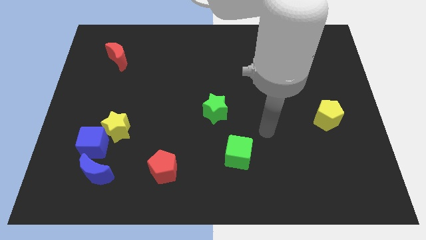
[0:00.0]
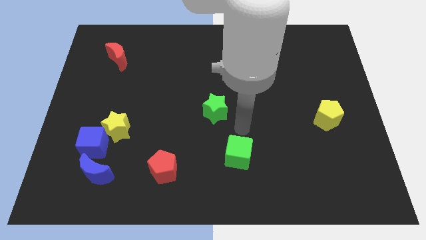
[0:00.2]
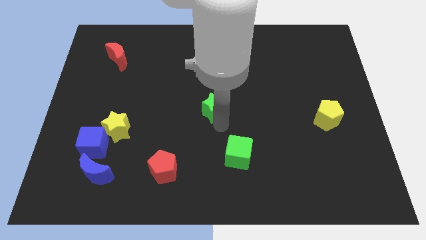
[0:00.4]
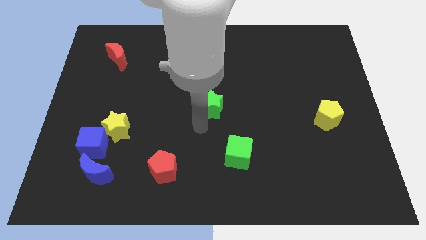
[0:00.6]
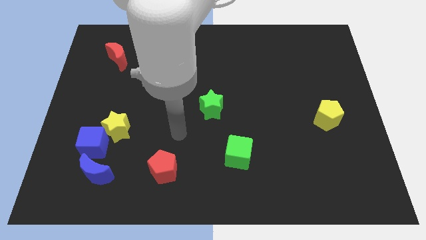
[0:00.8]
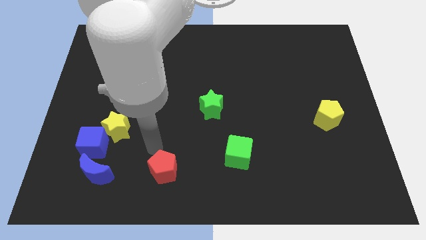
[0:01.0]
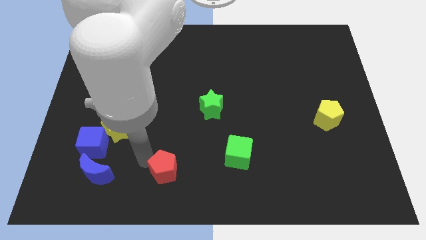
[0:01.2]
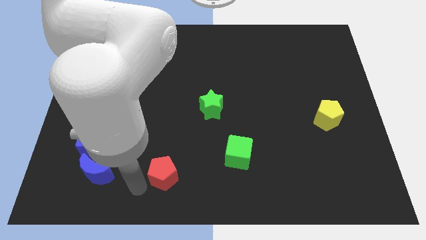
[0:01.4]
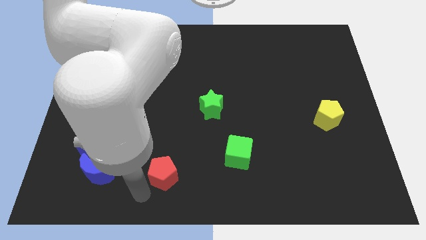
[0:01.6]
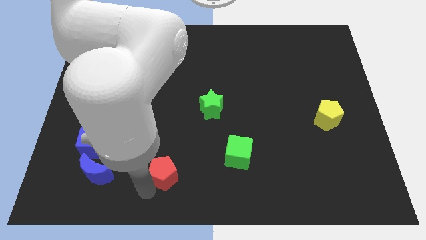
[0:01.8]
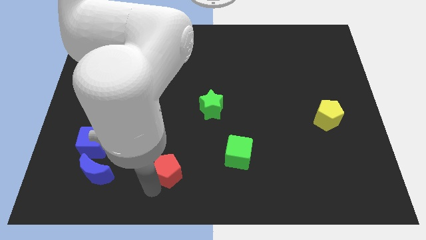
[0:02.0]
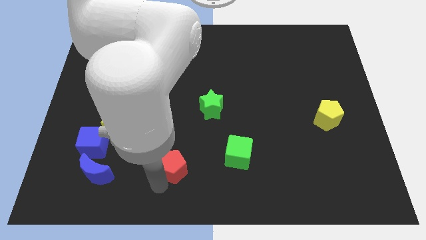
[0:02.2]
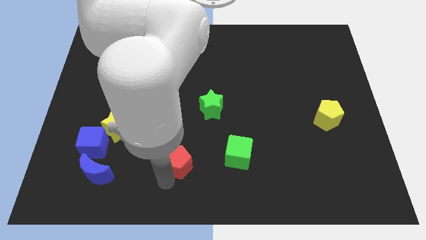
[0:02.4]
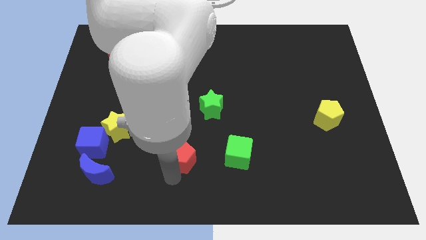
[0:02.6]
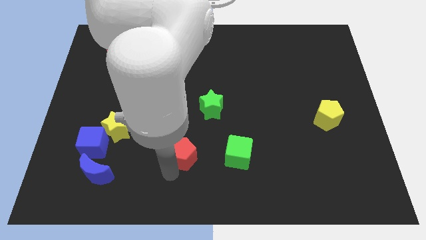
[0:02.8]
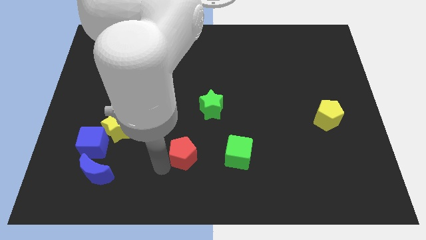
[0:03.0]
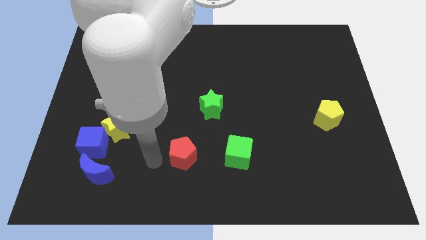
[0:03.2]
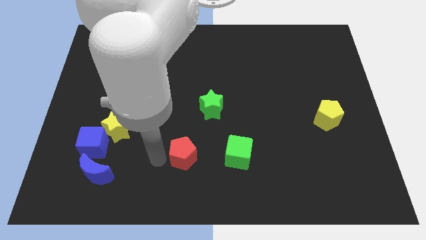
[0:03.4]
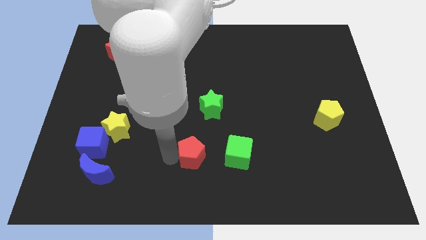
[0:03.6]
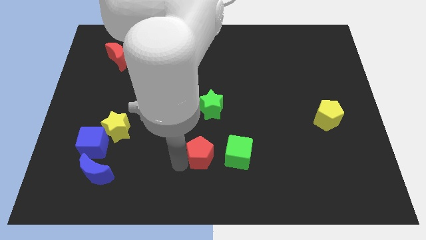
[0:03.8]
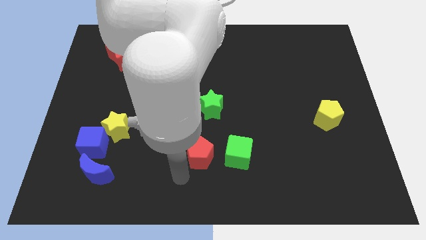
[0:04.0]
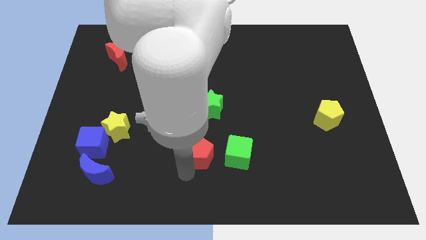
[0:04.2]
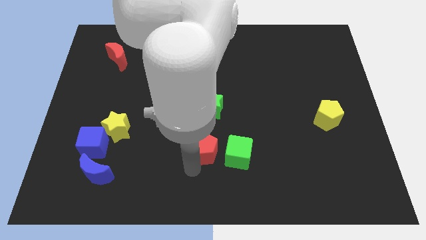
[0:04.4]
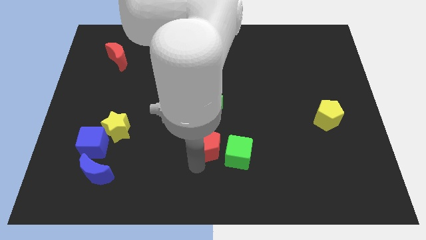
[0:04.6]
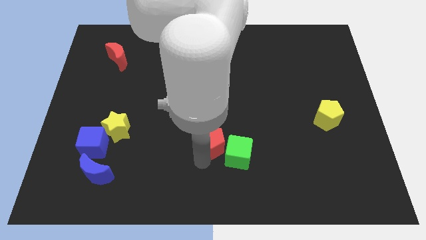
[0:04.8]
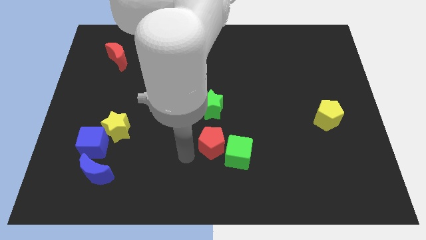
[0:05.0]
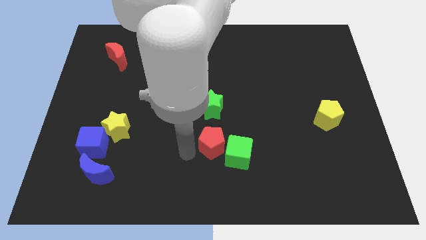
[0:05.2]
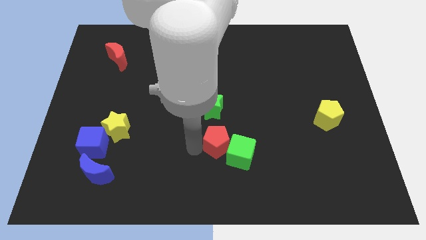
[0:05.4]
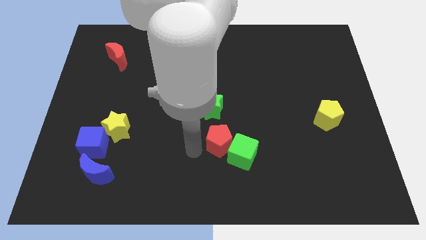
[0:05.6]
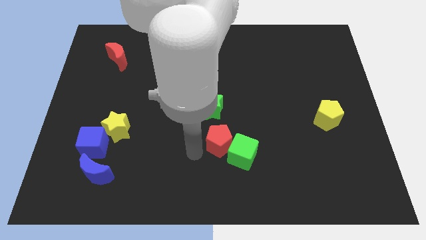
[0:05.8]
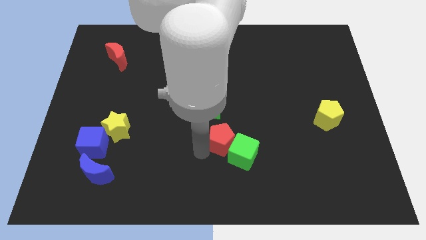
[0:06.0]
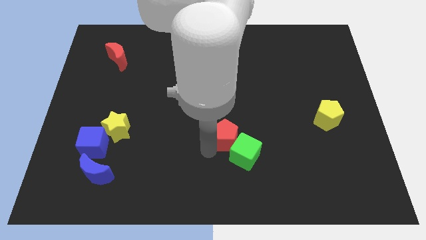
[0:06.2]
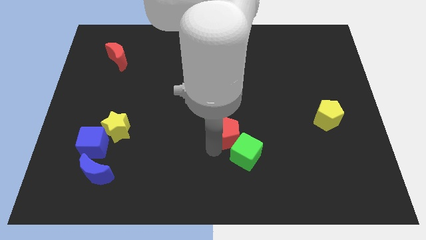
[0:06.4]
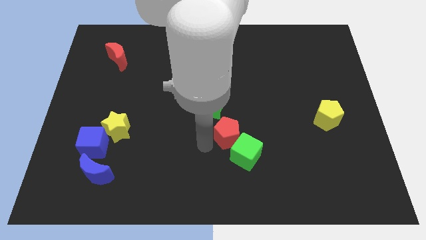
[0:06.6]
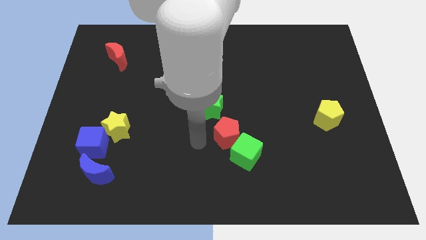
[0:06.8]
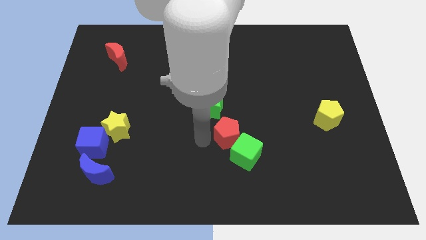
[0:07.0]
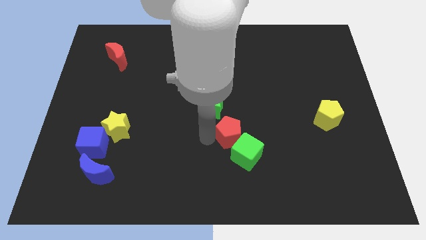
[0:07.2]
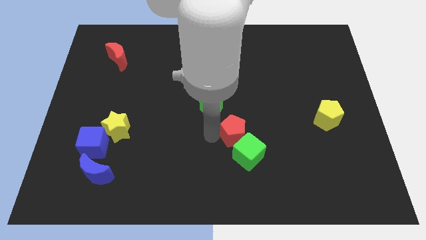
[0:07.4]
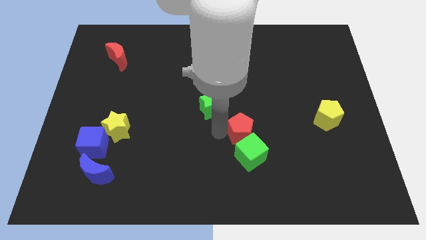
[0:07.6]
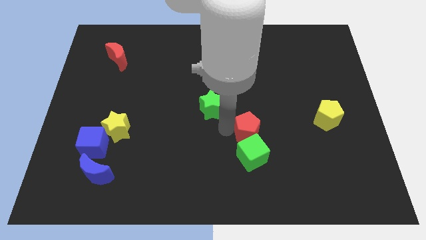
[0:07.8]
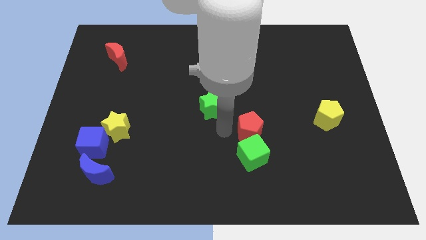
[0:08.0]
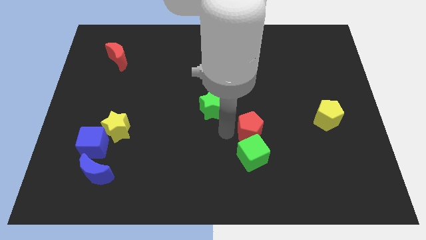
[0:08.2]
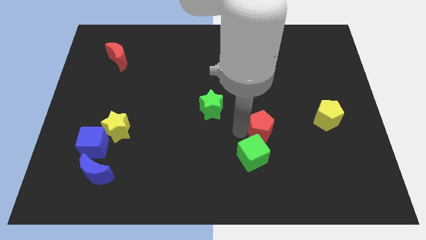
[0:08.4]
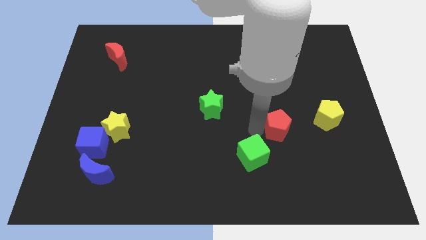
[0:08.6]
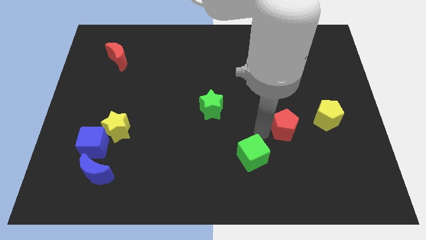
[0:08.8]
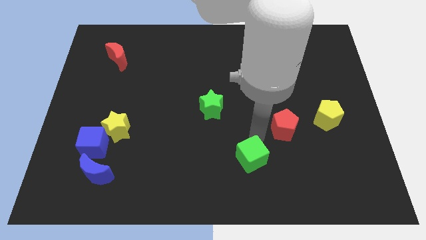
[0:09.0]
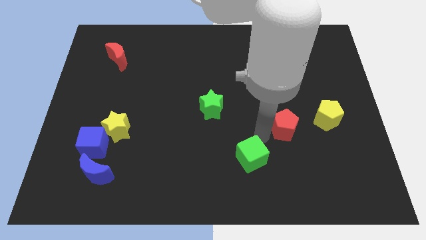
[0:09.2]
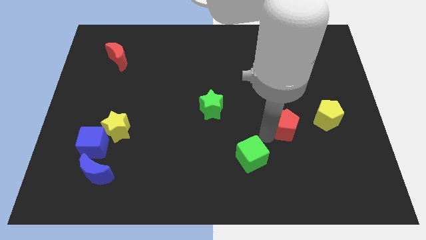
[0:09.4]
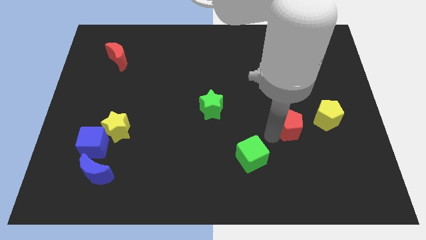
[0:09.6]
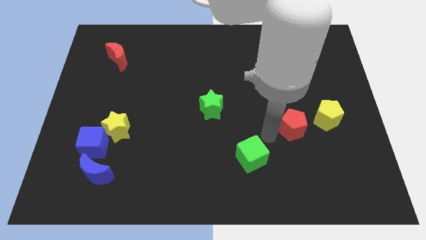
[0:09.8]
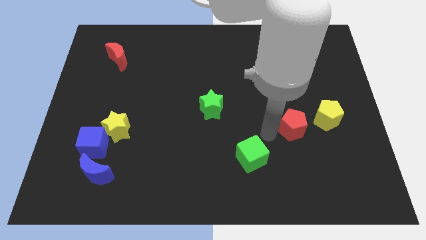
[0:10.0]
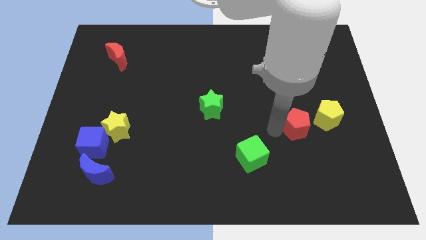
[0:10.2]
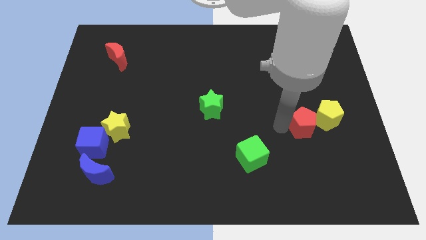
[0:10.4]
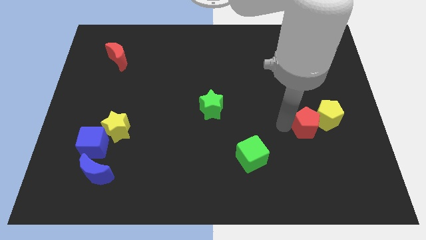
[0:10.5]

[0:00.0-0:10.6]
push the red pentagon towards the yellow pentagon

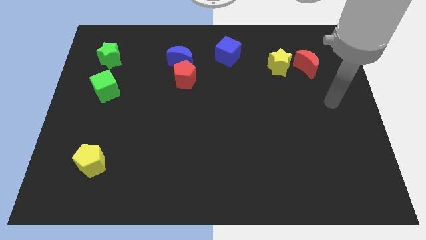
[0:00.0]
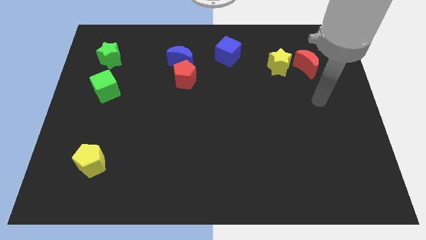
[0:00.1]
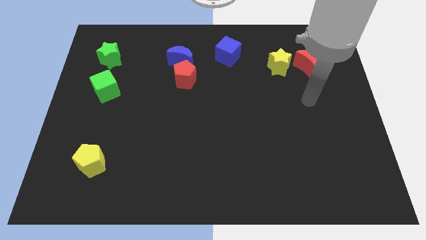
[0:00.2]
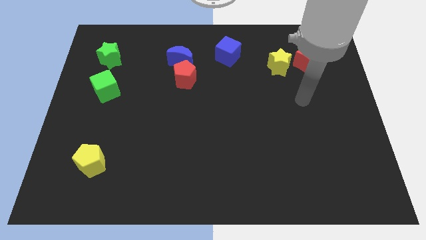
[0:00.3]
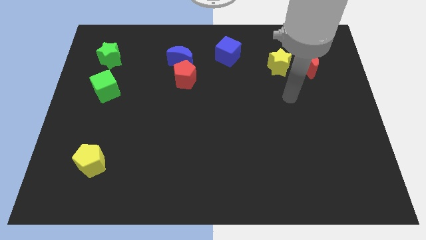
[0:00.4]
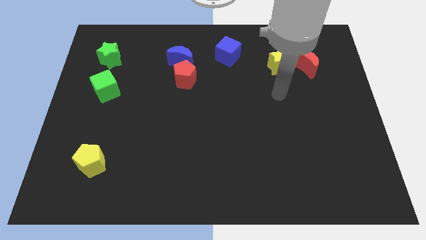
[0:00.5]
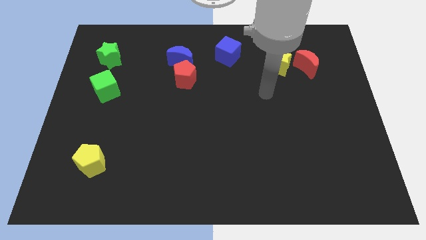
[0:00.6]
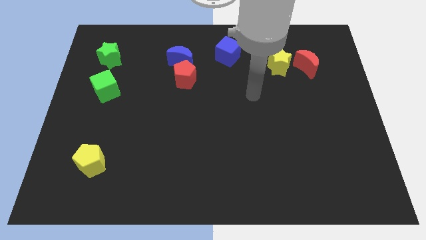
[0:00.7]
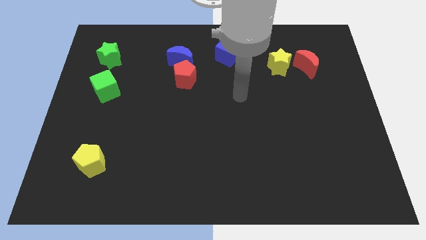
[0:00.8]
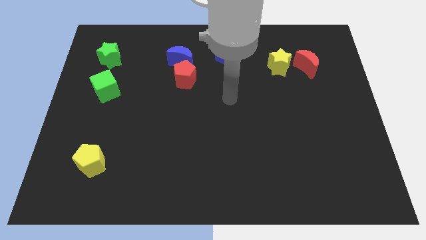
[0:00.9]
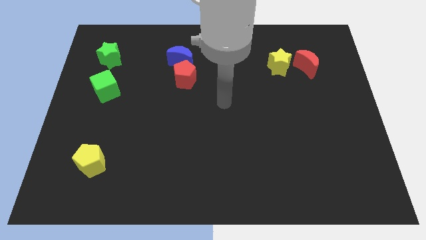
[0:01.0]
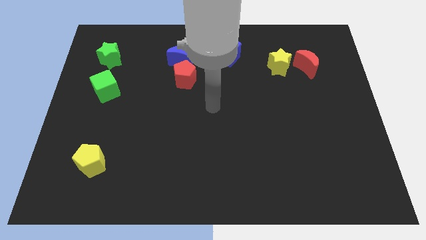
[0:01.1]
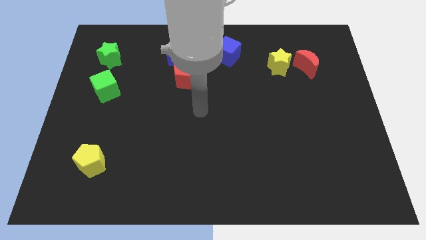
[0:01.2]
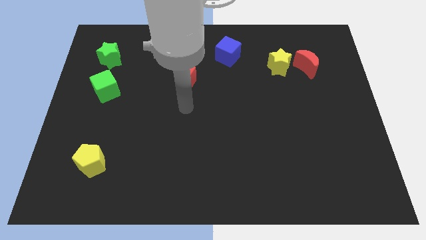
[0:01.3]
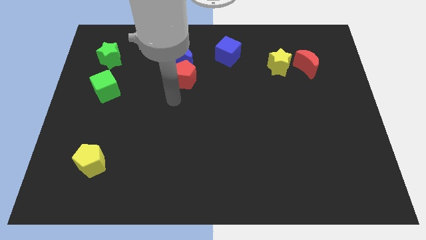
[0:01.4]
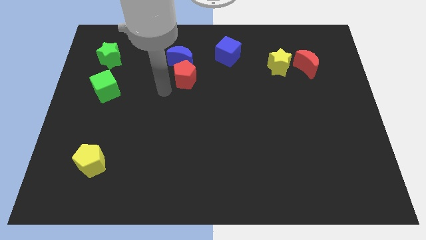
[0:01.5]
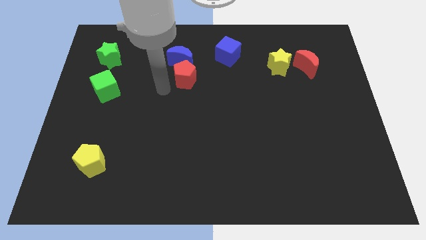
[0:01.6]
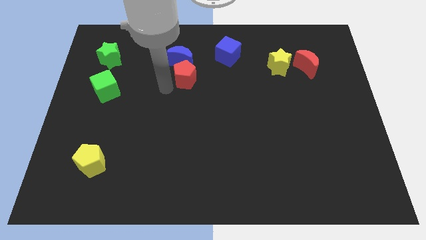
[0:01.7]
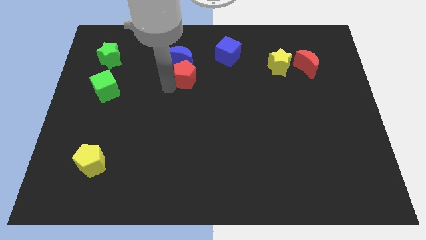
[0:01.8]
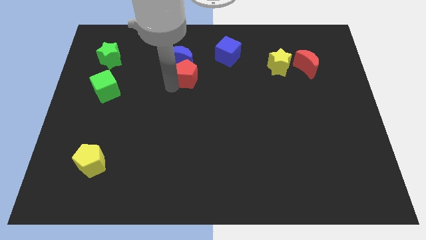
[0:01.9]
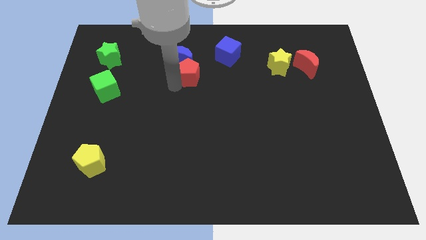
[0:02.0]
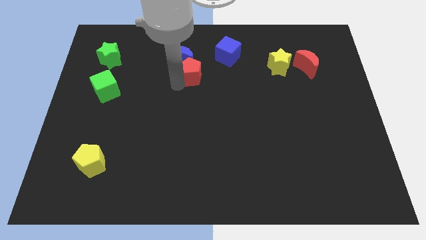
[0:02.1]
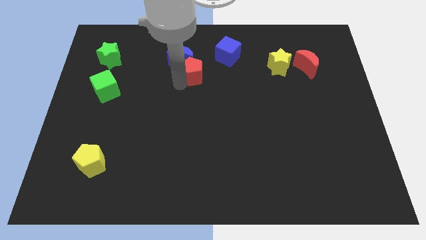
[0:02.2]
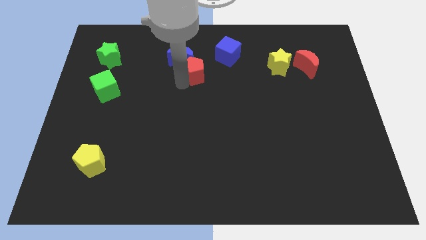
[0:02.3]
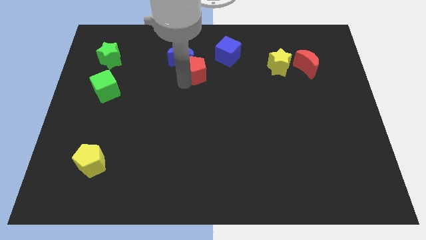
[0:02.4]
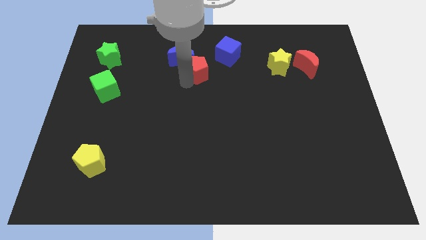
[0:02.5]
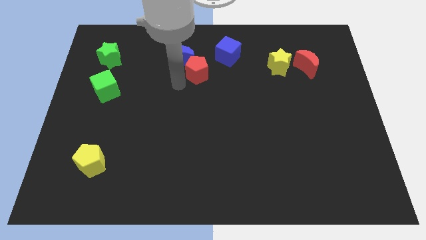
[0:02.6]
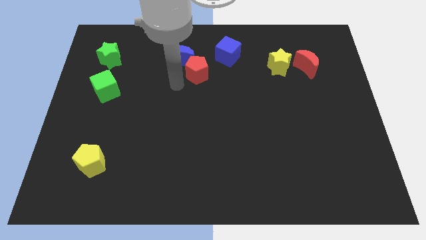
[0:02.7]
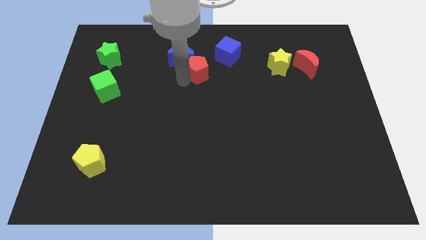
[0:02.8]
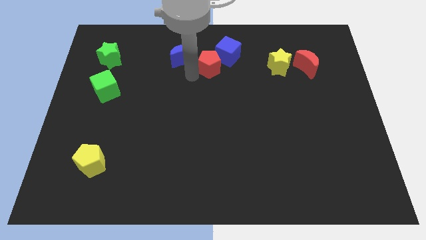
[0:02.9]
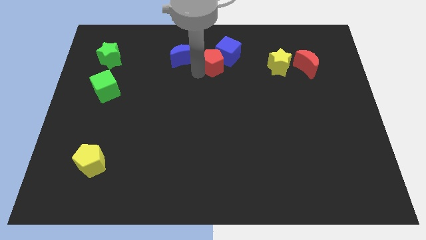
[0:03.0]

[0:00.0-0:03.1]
put the red pentagon next to the blue cube

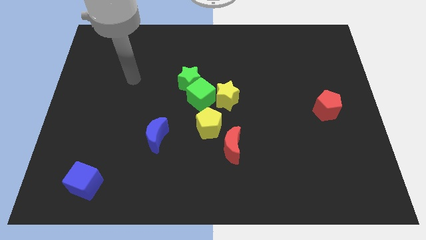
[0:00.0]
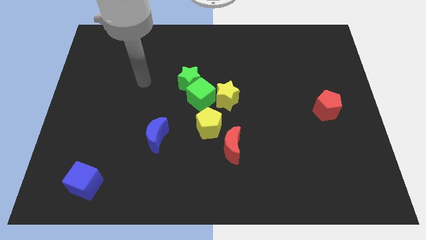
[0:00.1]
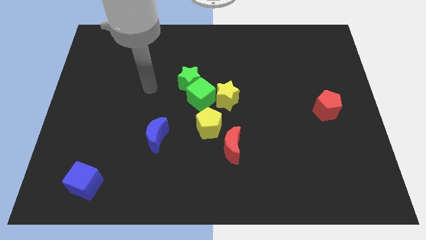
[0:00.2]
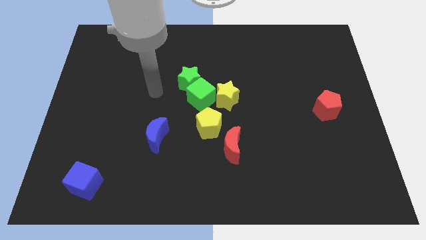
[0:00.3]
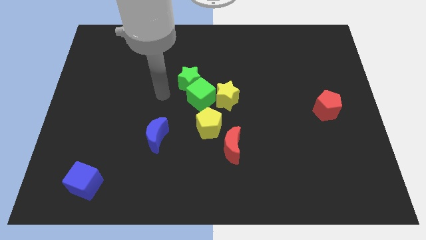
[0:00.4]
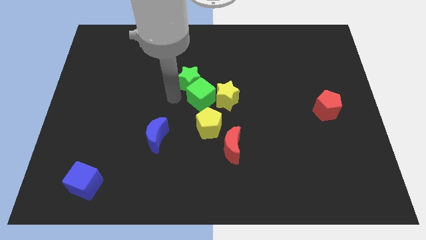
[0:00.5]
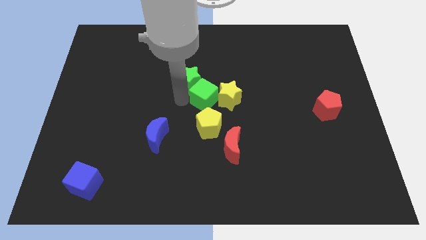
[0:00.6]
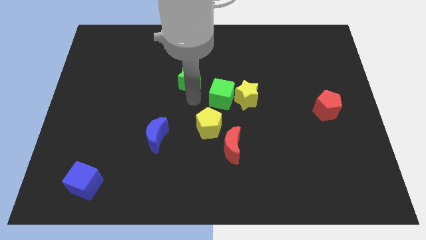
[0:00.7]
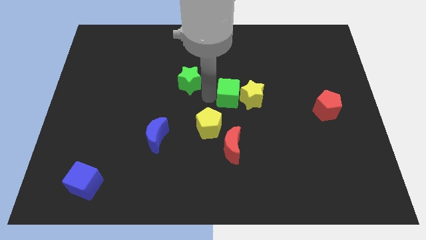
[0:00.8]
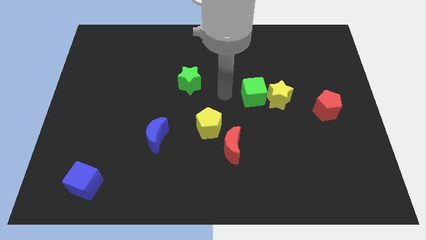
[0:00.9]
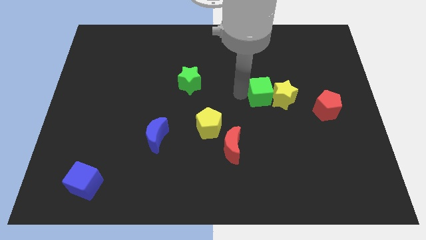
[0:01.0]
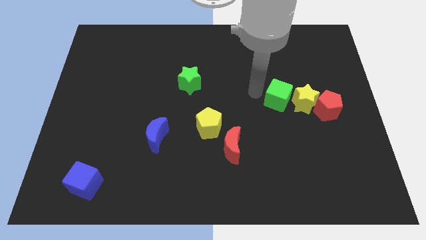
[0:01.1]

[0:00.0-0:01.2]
slide the yellow star close to the red pentagon
